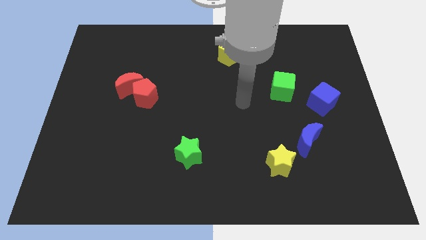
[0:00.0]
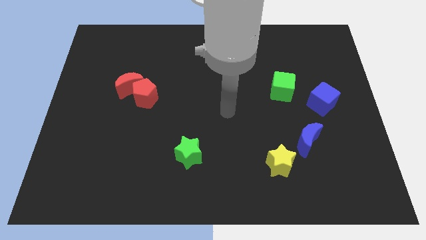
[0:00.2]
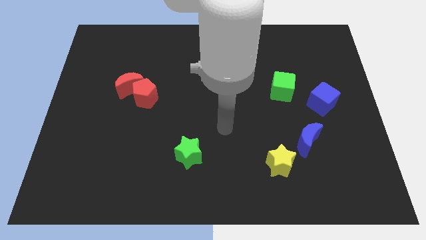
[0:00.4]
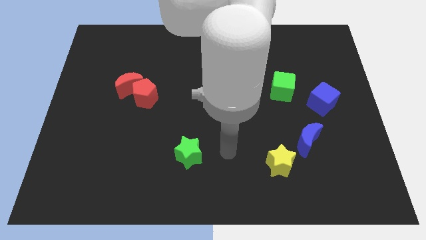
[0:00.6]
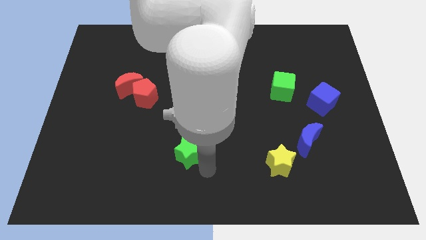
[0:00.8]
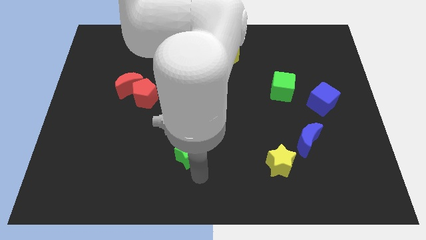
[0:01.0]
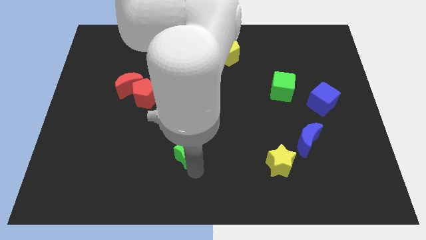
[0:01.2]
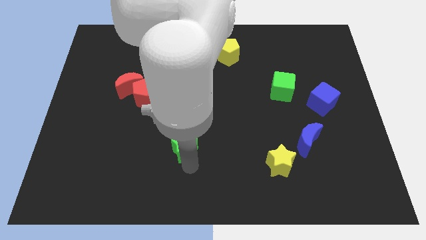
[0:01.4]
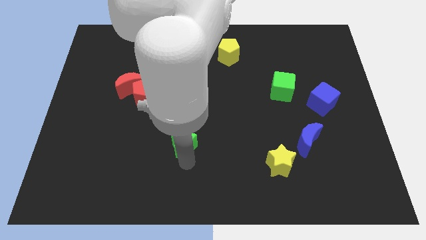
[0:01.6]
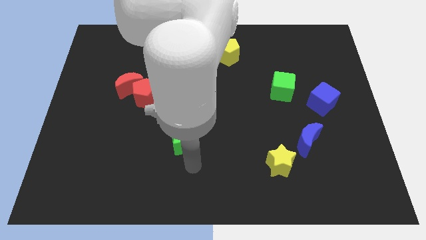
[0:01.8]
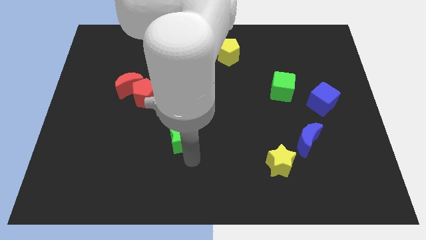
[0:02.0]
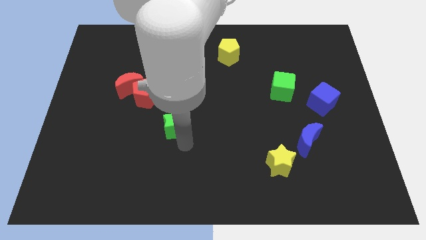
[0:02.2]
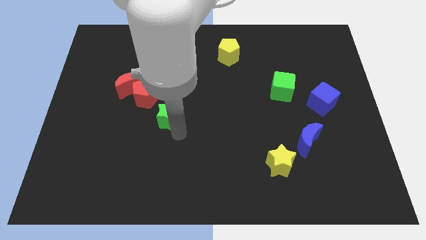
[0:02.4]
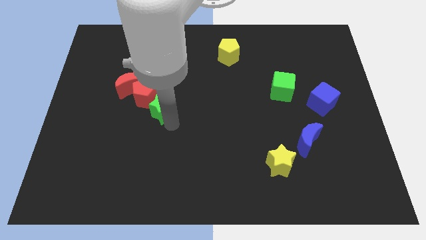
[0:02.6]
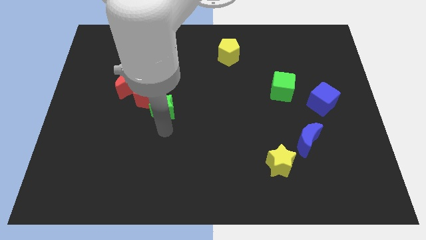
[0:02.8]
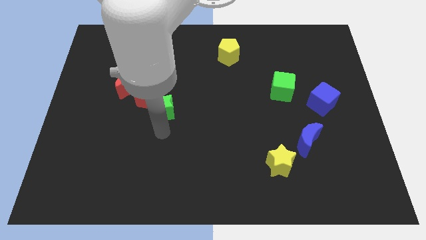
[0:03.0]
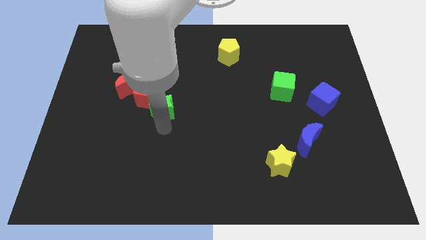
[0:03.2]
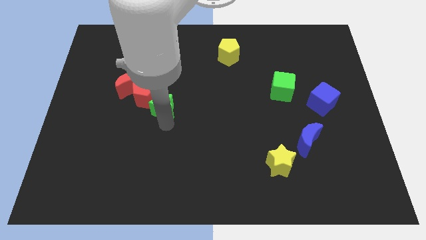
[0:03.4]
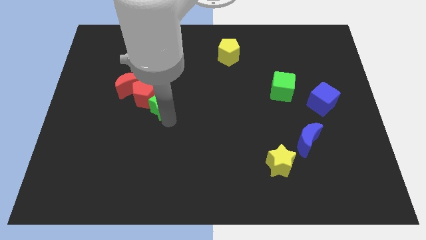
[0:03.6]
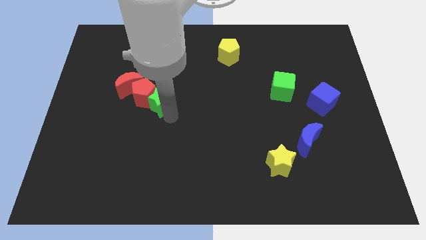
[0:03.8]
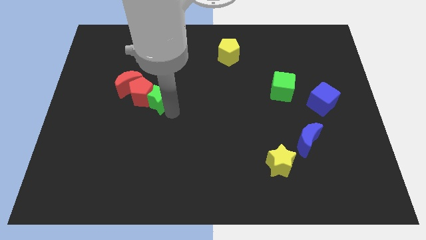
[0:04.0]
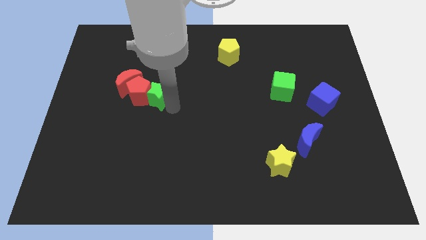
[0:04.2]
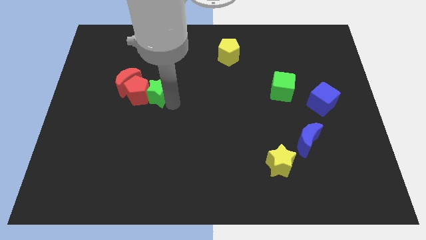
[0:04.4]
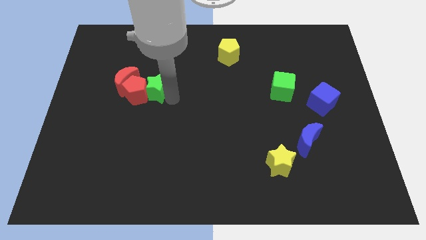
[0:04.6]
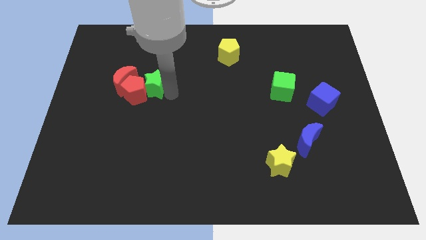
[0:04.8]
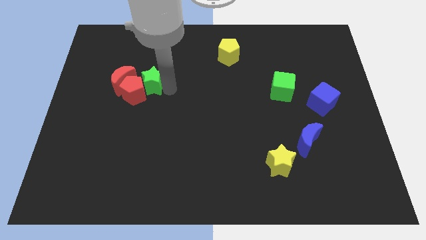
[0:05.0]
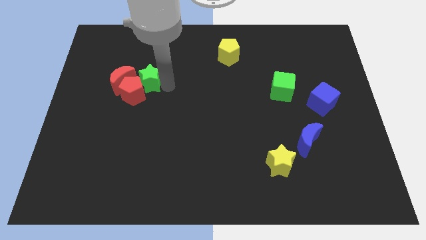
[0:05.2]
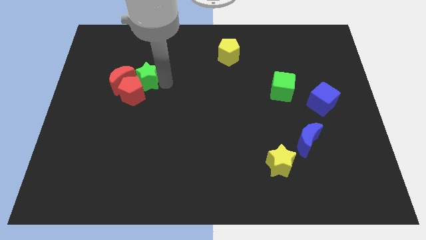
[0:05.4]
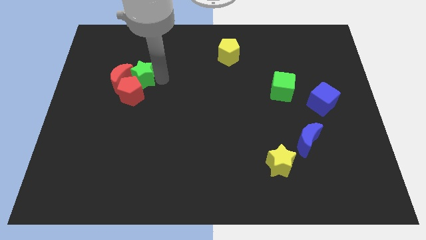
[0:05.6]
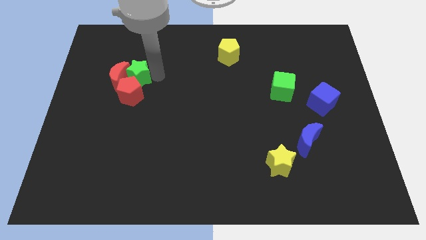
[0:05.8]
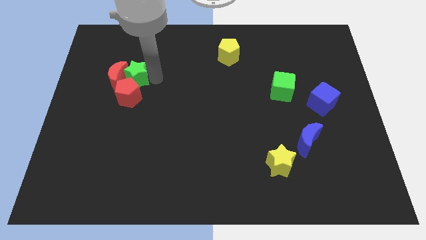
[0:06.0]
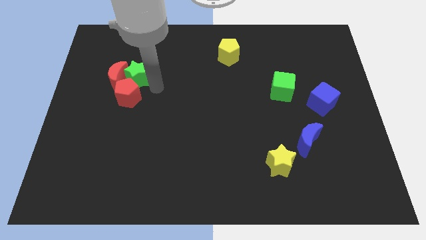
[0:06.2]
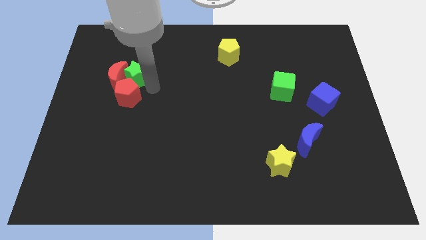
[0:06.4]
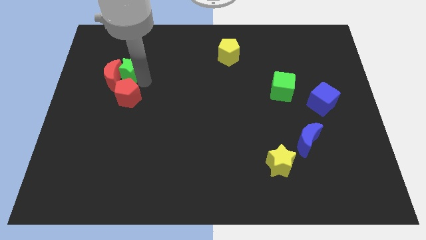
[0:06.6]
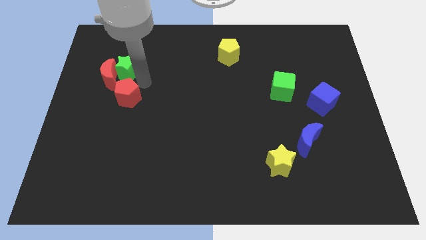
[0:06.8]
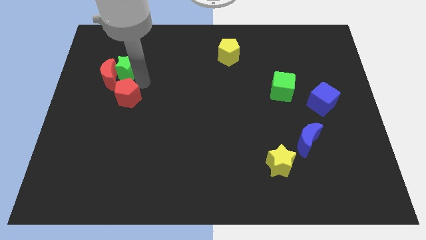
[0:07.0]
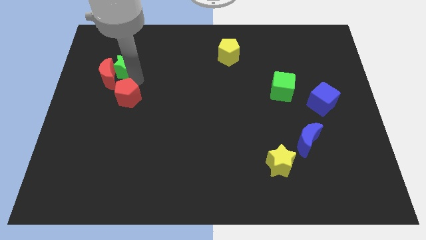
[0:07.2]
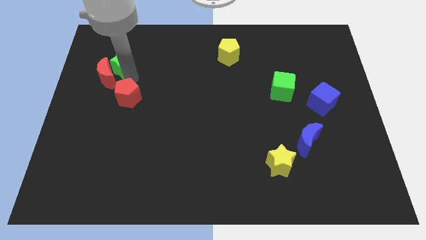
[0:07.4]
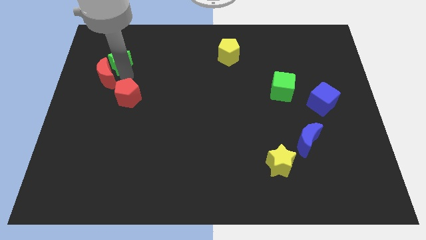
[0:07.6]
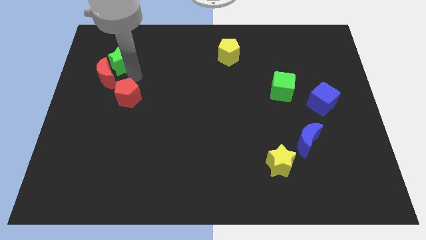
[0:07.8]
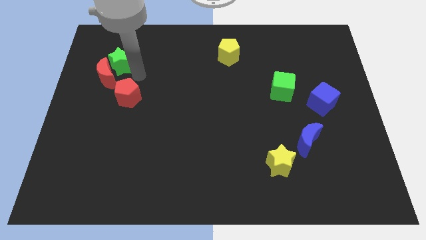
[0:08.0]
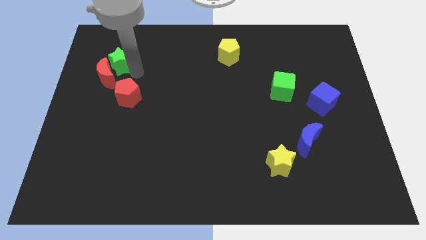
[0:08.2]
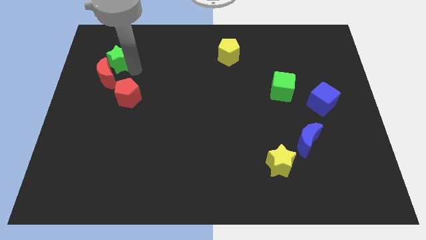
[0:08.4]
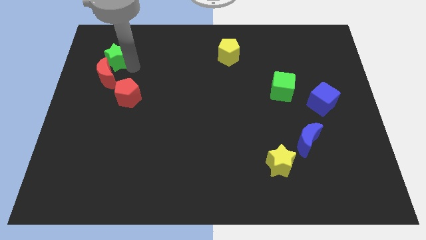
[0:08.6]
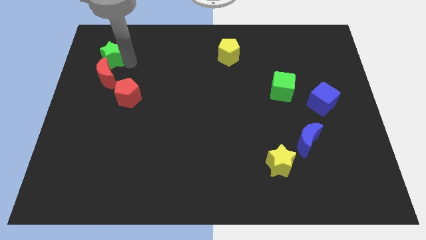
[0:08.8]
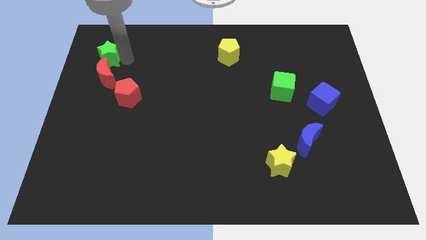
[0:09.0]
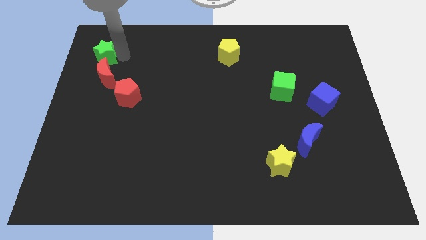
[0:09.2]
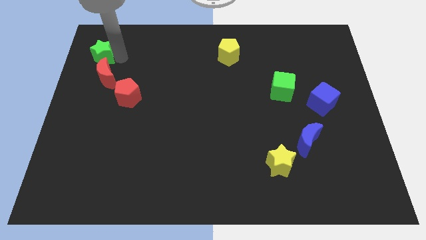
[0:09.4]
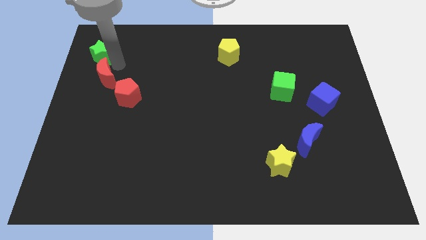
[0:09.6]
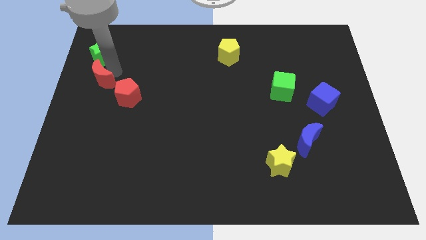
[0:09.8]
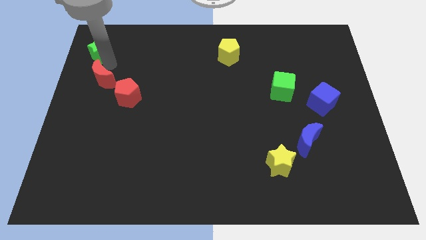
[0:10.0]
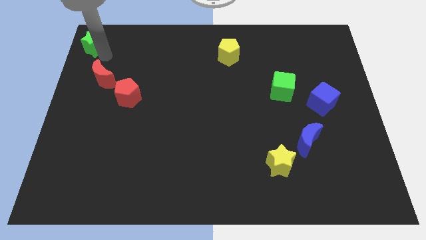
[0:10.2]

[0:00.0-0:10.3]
put the green star to the upper left corner

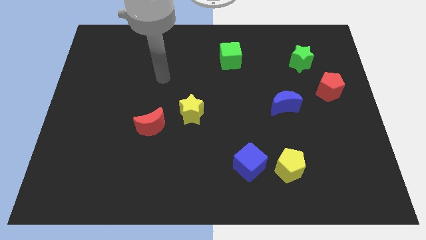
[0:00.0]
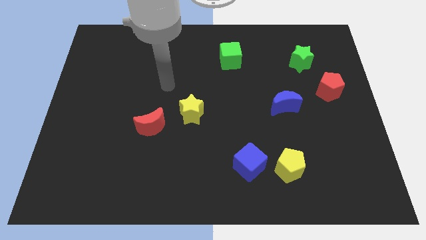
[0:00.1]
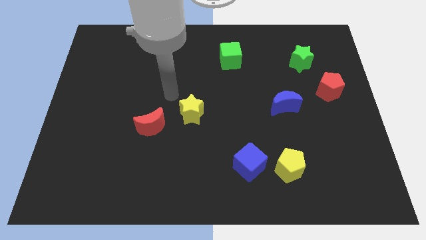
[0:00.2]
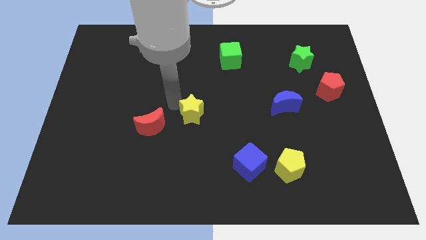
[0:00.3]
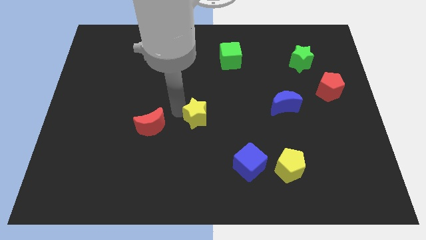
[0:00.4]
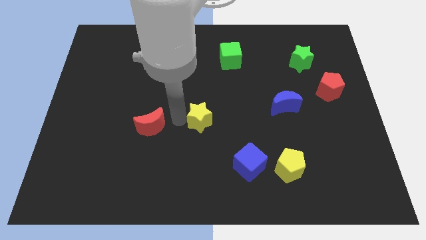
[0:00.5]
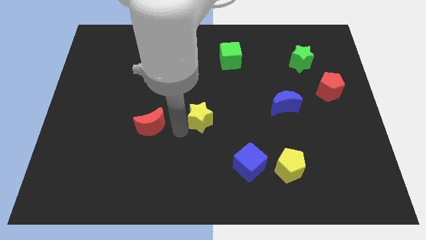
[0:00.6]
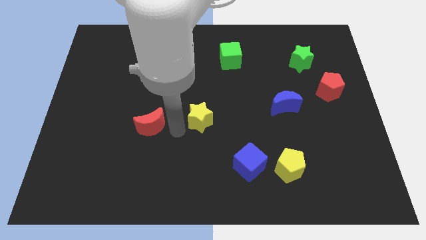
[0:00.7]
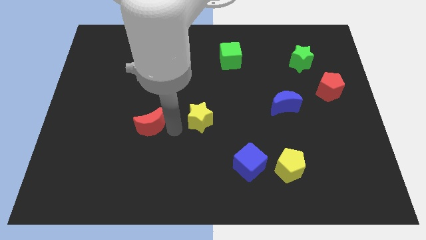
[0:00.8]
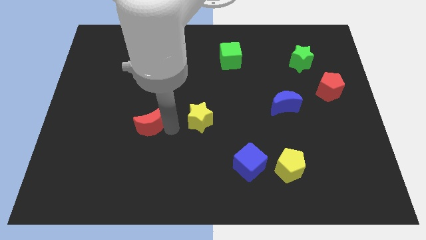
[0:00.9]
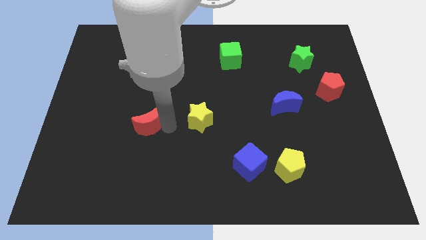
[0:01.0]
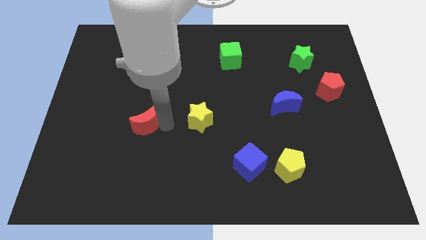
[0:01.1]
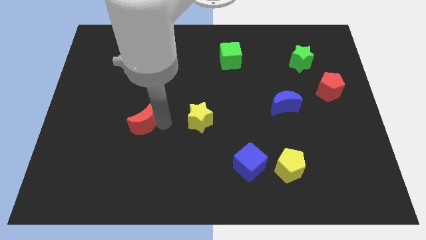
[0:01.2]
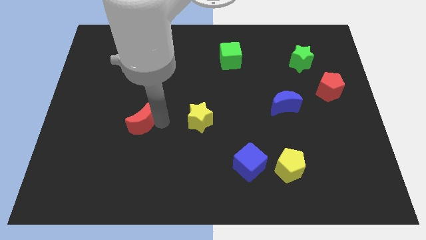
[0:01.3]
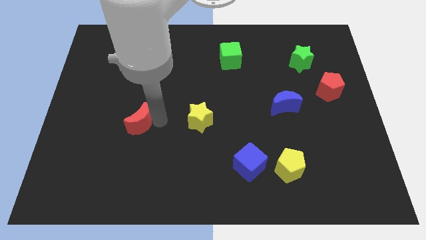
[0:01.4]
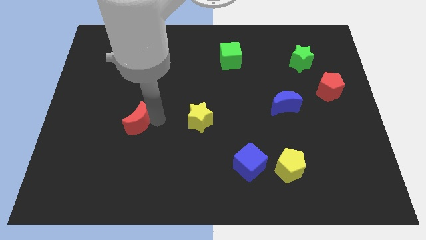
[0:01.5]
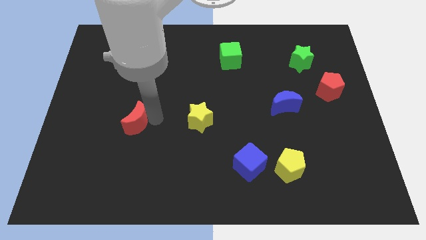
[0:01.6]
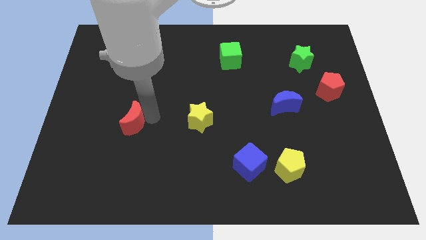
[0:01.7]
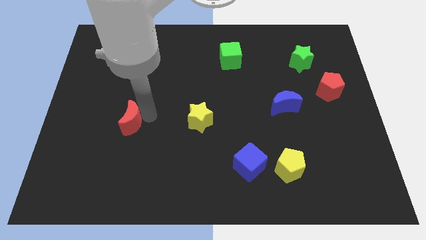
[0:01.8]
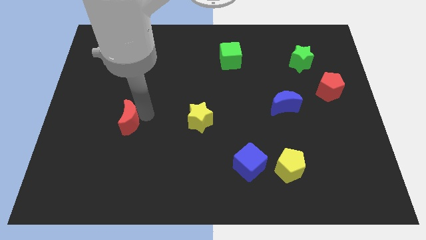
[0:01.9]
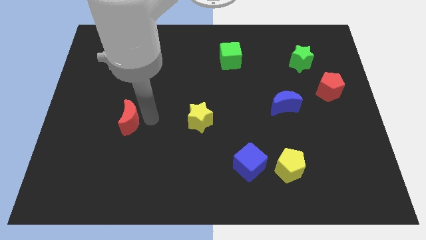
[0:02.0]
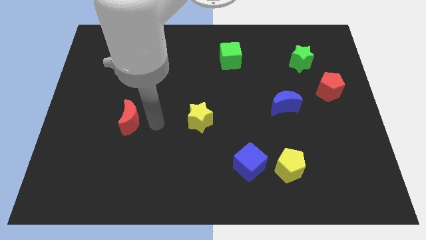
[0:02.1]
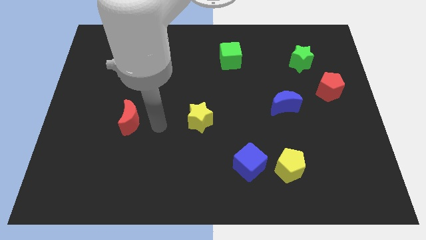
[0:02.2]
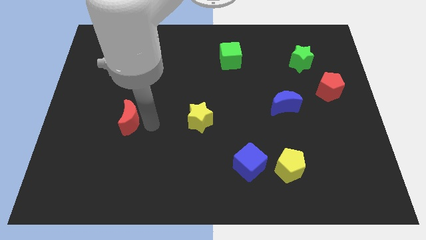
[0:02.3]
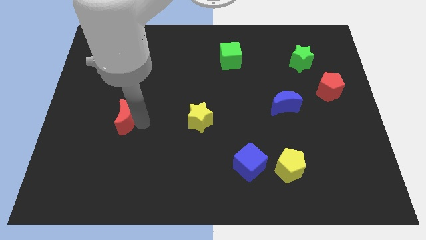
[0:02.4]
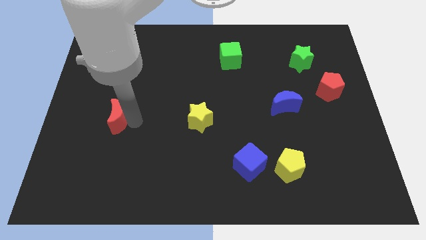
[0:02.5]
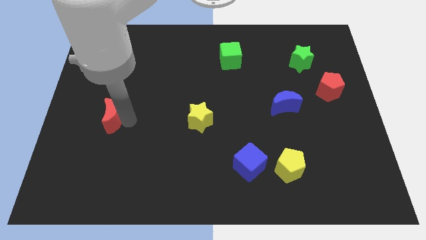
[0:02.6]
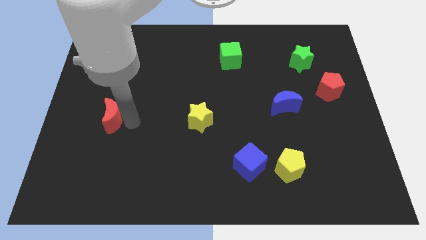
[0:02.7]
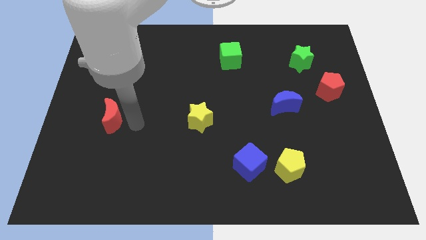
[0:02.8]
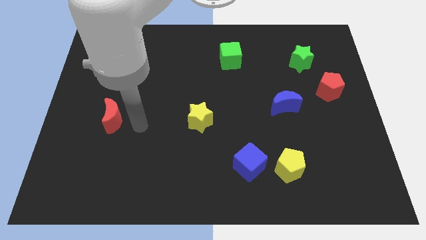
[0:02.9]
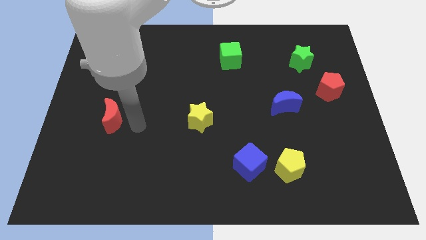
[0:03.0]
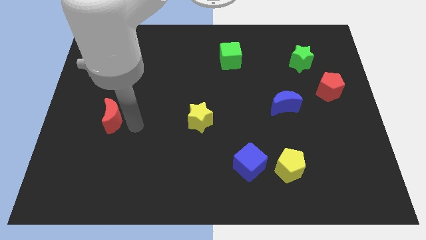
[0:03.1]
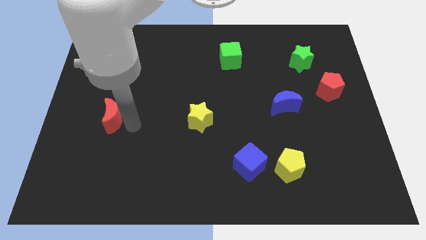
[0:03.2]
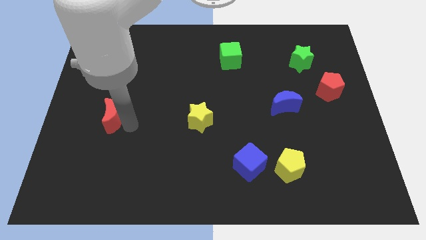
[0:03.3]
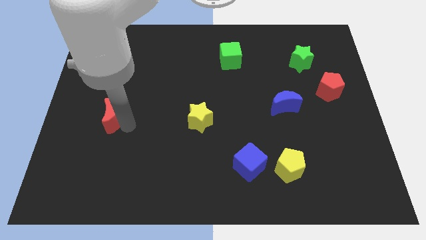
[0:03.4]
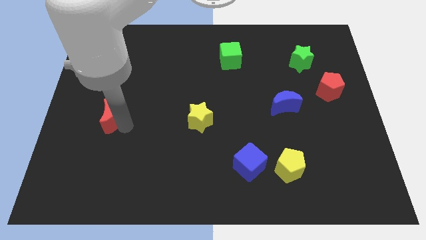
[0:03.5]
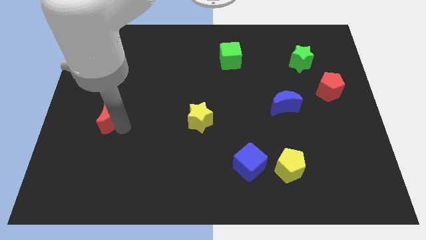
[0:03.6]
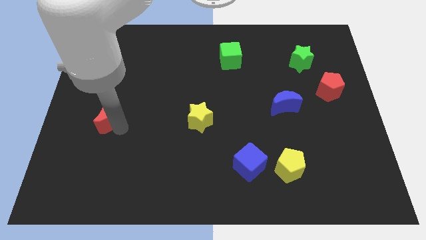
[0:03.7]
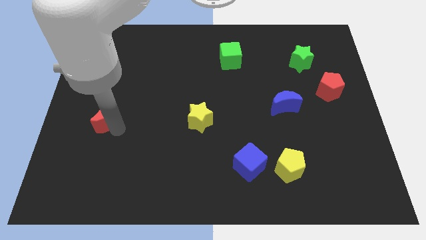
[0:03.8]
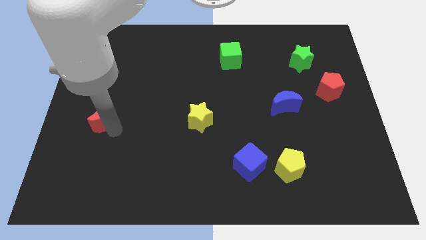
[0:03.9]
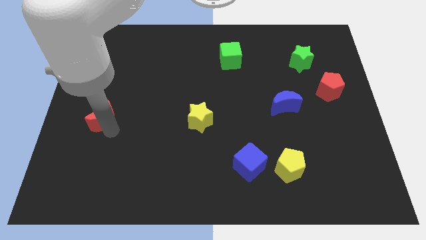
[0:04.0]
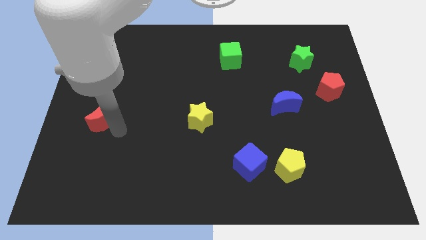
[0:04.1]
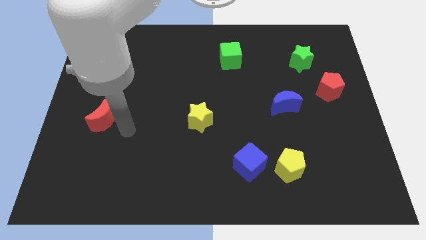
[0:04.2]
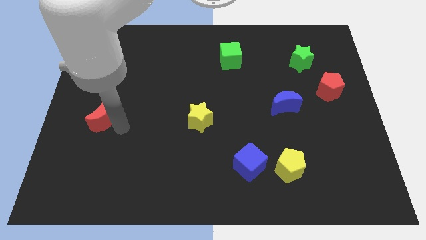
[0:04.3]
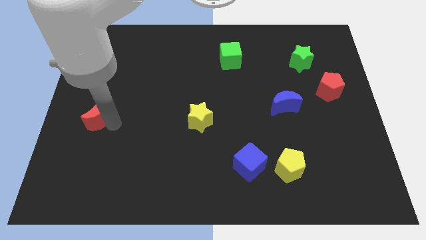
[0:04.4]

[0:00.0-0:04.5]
put the red moon to the left side
